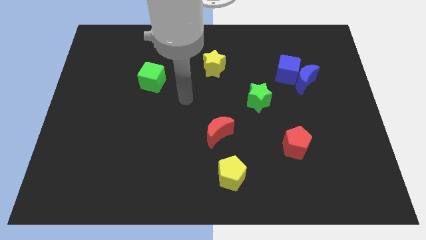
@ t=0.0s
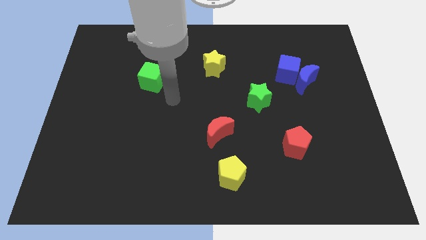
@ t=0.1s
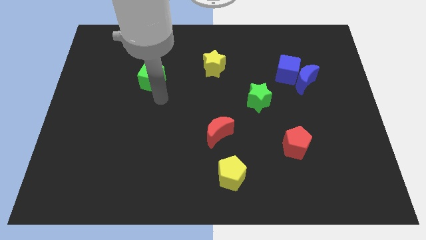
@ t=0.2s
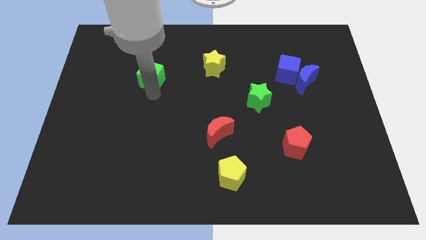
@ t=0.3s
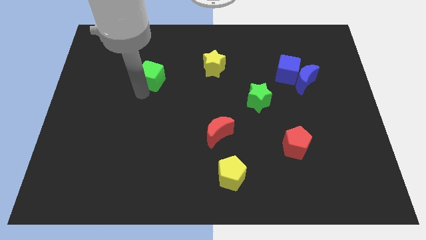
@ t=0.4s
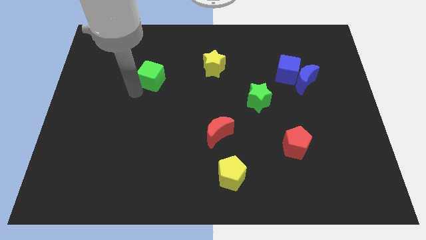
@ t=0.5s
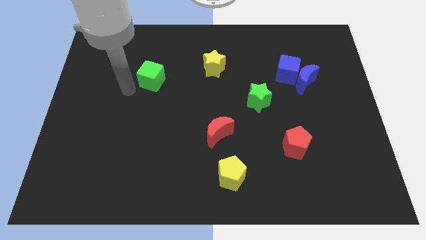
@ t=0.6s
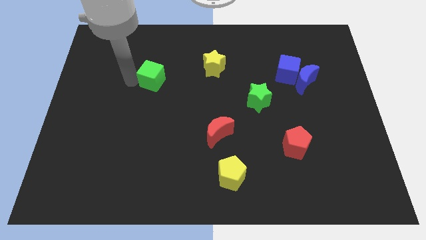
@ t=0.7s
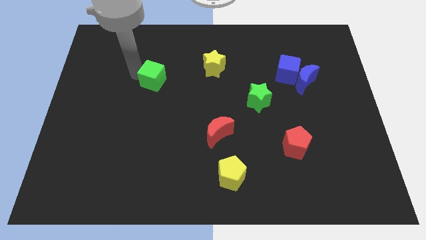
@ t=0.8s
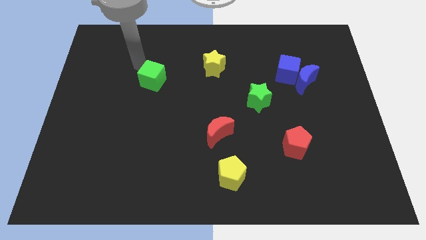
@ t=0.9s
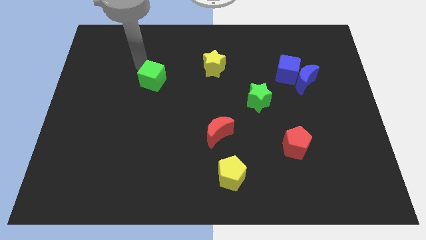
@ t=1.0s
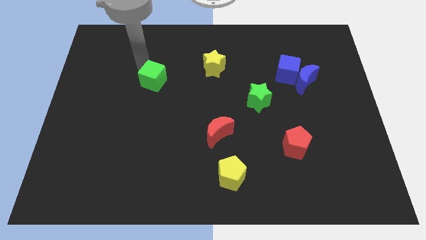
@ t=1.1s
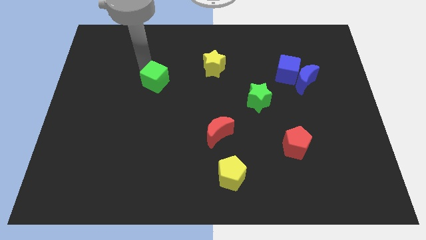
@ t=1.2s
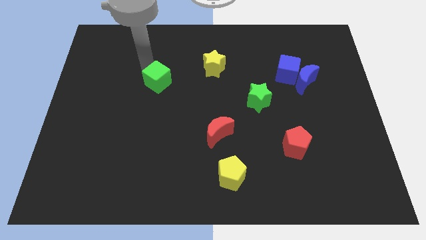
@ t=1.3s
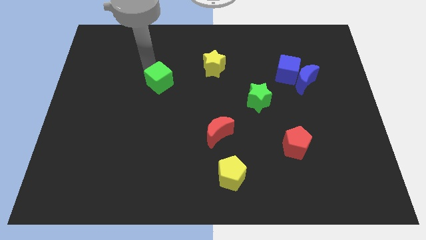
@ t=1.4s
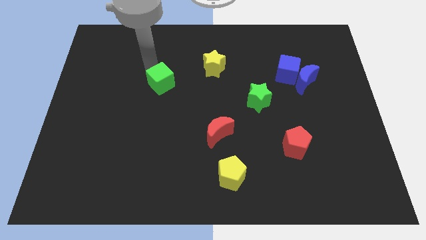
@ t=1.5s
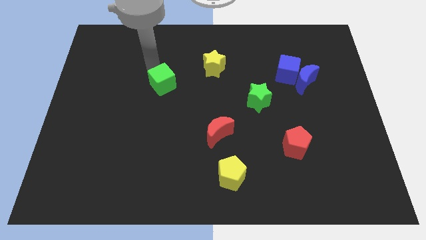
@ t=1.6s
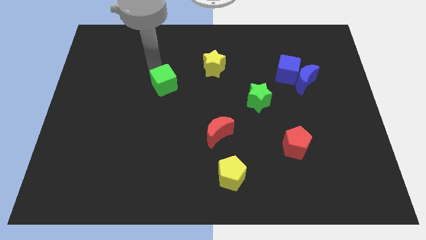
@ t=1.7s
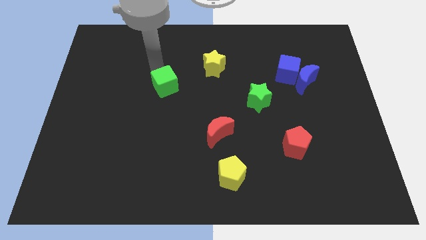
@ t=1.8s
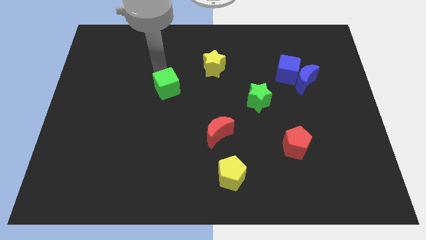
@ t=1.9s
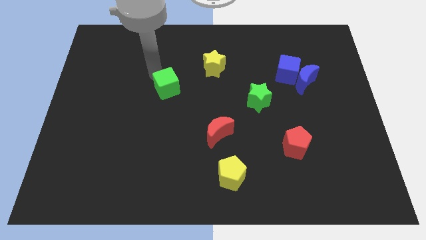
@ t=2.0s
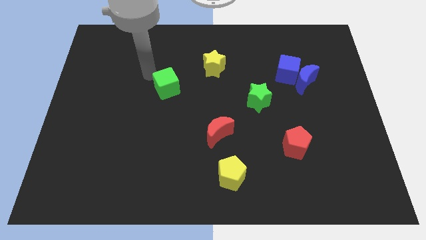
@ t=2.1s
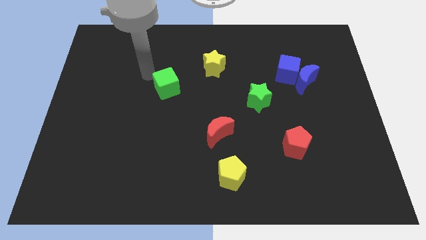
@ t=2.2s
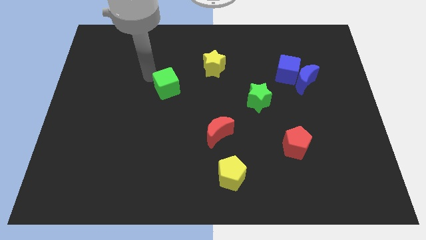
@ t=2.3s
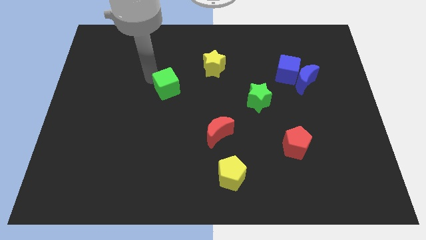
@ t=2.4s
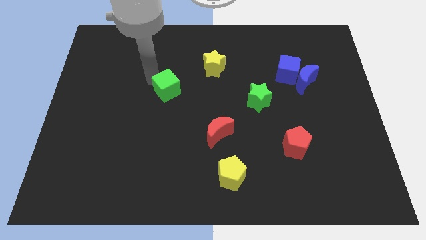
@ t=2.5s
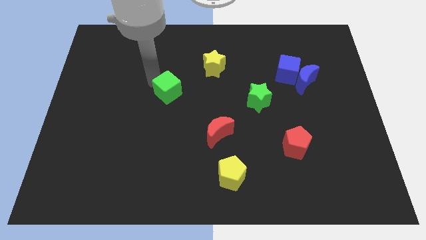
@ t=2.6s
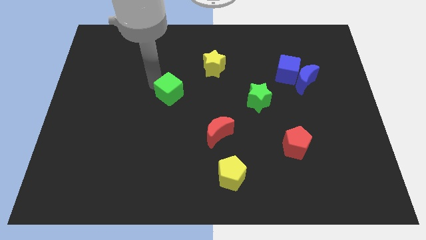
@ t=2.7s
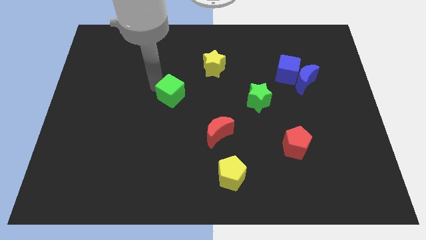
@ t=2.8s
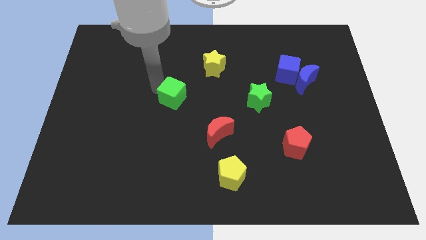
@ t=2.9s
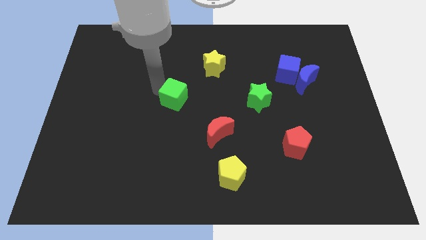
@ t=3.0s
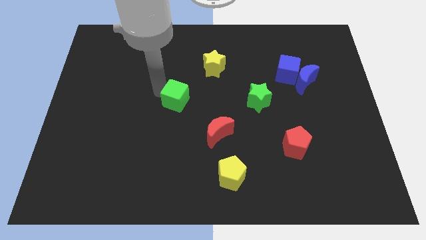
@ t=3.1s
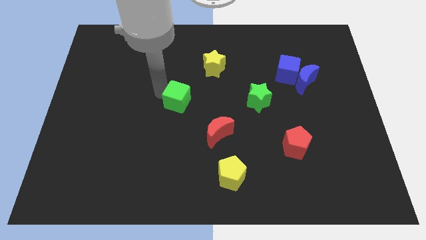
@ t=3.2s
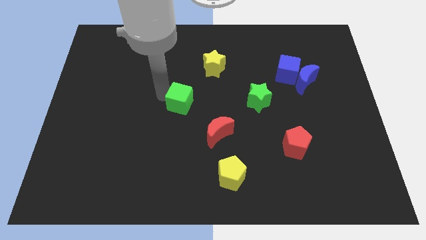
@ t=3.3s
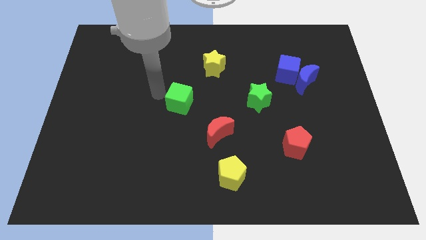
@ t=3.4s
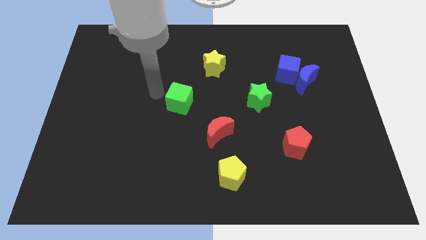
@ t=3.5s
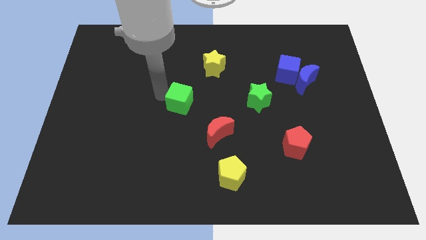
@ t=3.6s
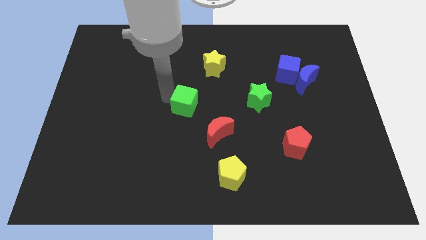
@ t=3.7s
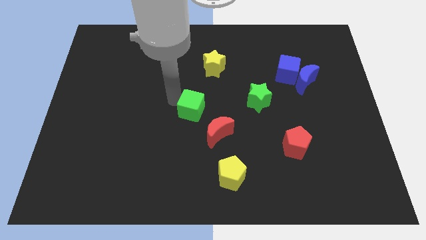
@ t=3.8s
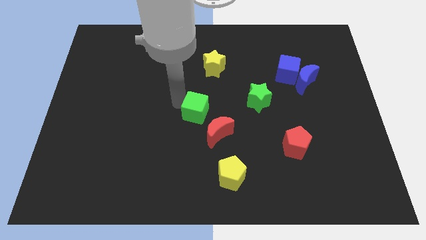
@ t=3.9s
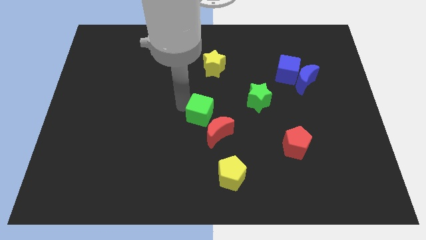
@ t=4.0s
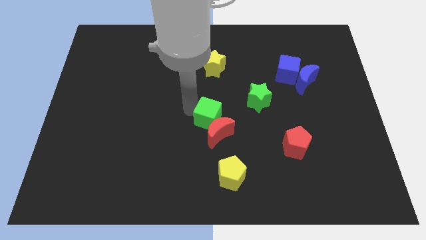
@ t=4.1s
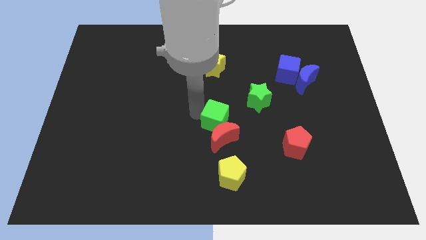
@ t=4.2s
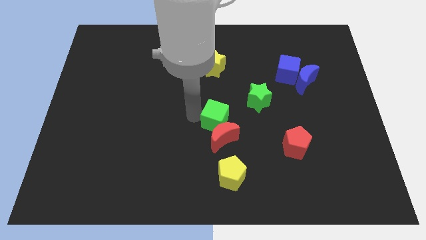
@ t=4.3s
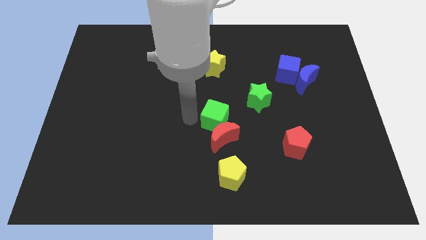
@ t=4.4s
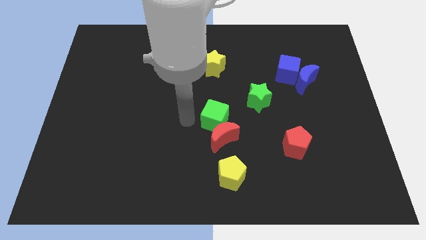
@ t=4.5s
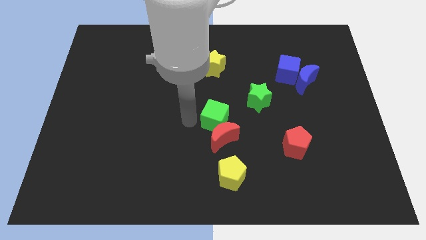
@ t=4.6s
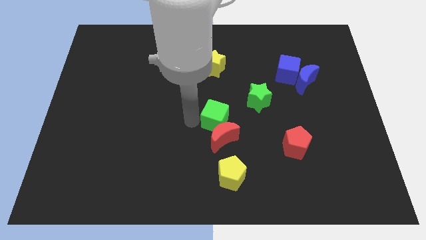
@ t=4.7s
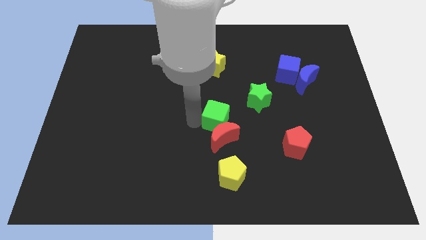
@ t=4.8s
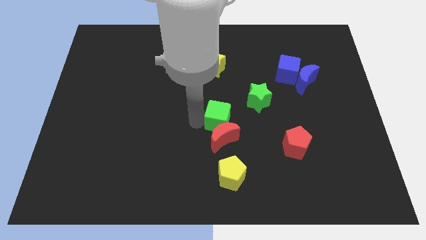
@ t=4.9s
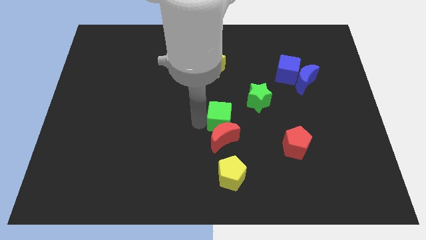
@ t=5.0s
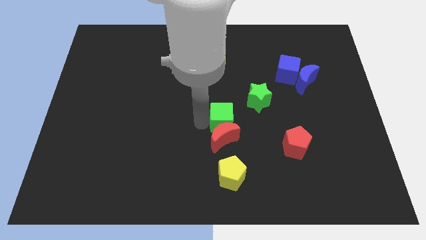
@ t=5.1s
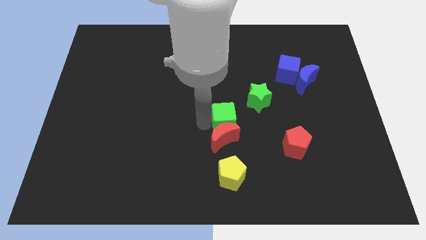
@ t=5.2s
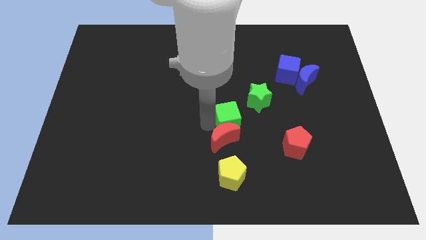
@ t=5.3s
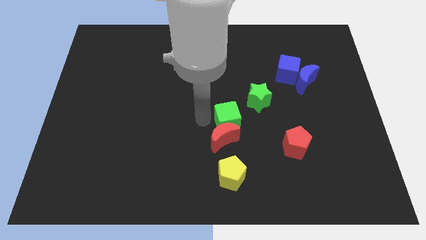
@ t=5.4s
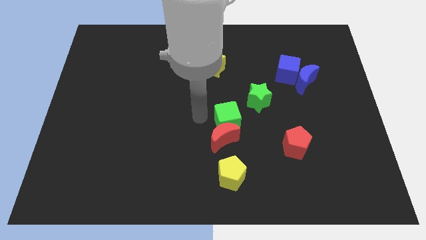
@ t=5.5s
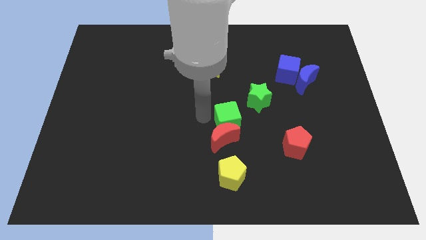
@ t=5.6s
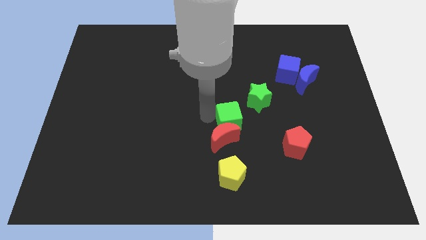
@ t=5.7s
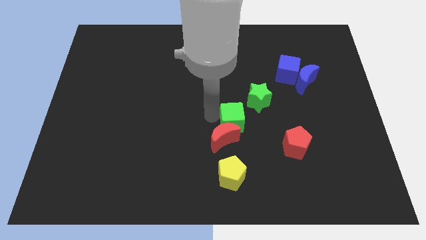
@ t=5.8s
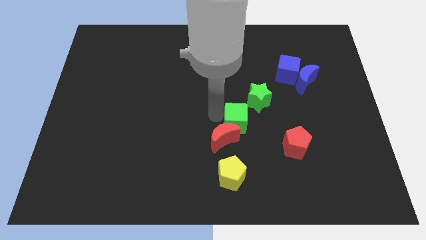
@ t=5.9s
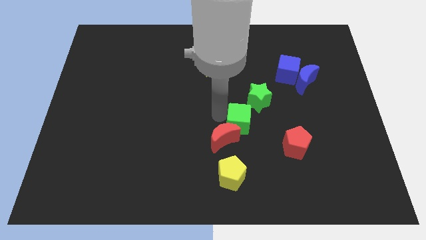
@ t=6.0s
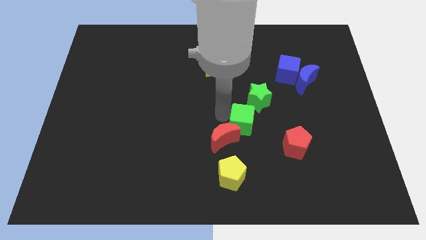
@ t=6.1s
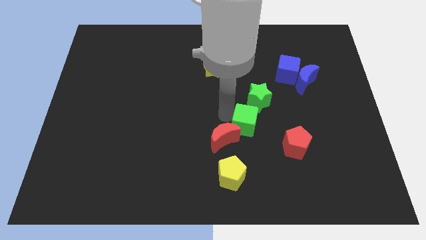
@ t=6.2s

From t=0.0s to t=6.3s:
put the green cube to the top left of the red pentagon

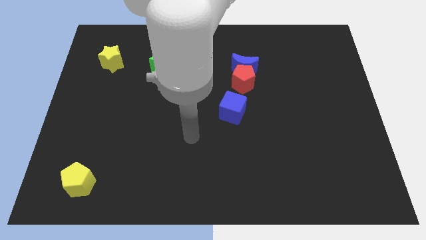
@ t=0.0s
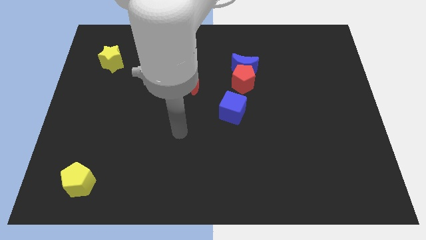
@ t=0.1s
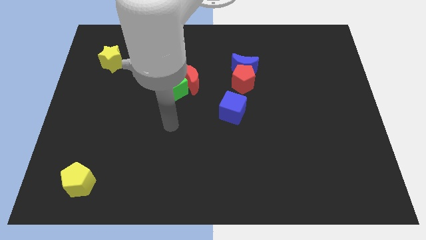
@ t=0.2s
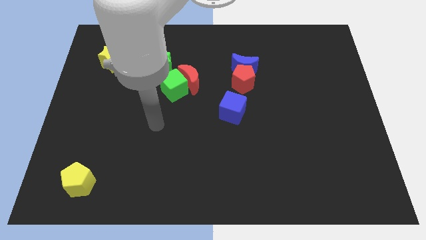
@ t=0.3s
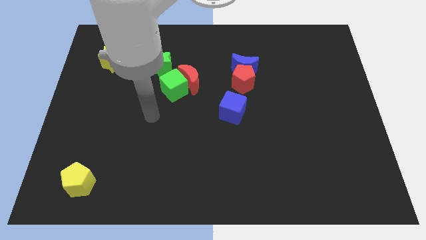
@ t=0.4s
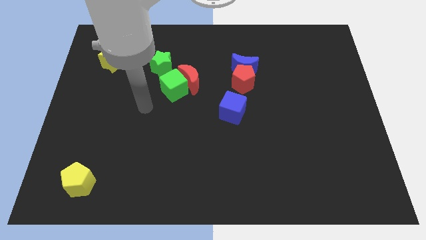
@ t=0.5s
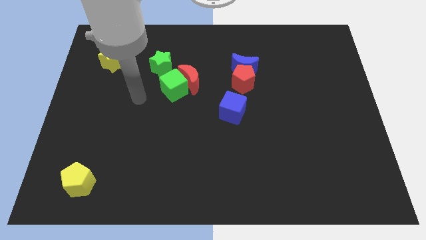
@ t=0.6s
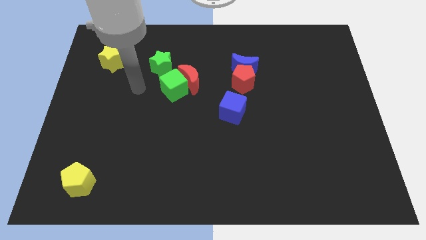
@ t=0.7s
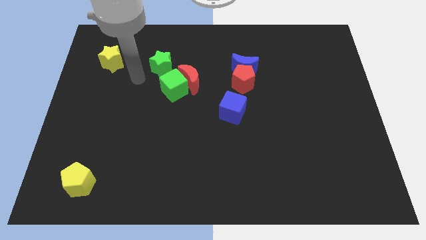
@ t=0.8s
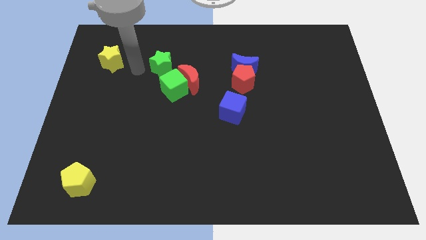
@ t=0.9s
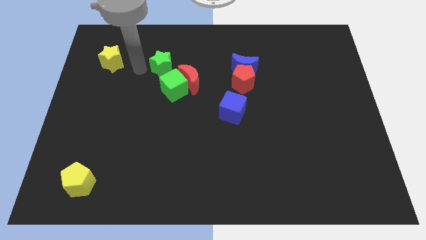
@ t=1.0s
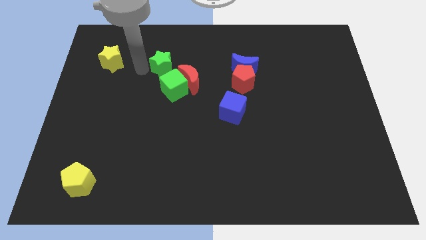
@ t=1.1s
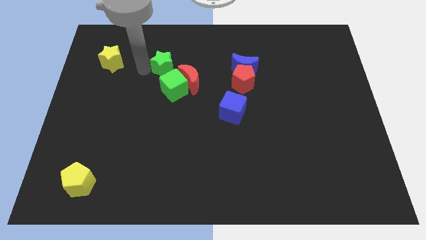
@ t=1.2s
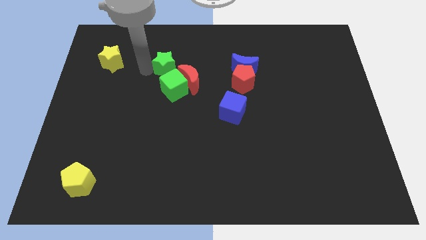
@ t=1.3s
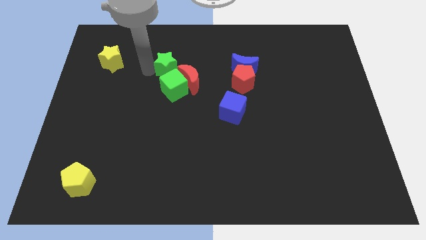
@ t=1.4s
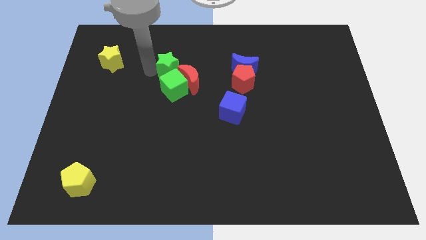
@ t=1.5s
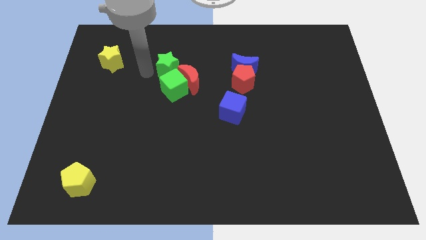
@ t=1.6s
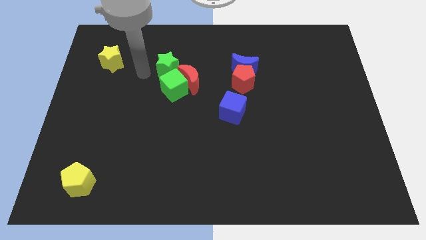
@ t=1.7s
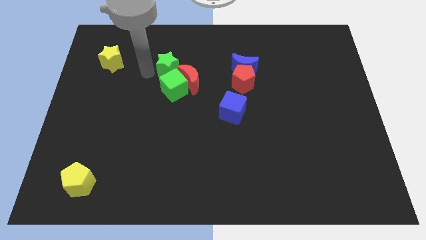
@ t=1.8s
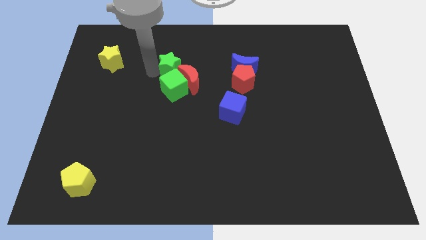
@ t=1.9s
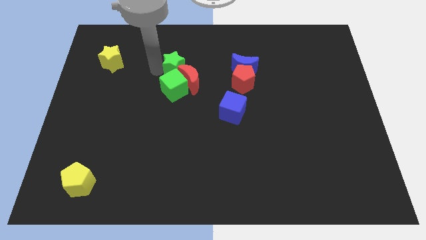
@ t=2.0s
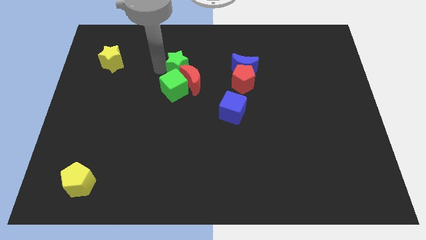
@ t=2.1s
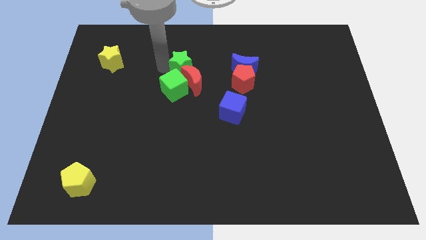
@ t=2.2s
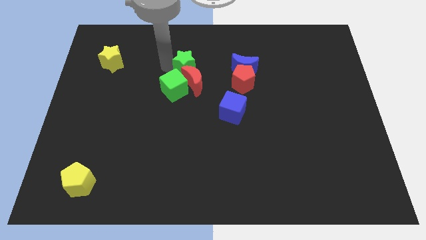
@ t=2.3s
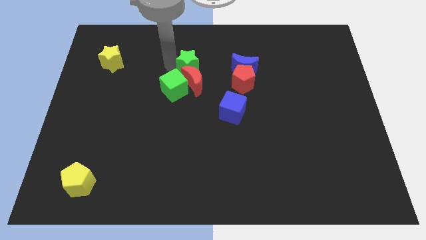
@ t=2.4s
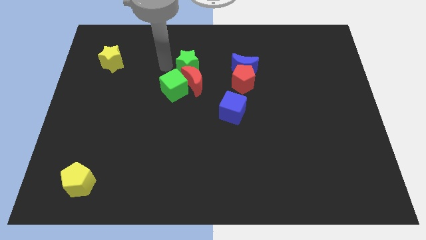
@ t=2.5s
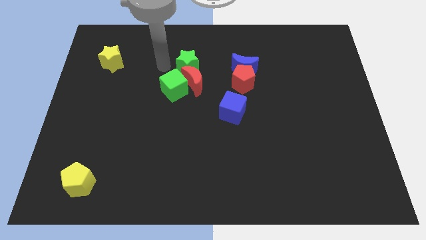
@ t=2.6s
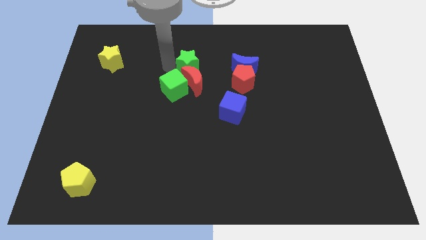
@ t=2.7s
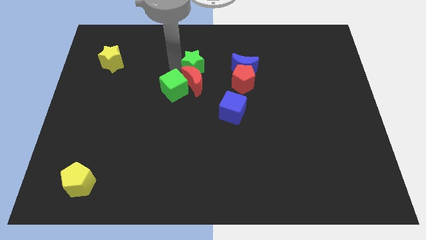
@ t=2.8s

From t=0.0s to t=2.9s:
push the green star to the top right of the red moon
